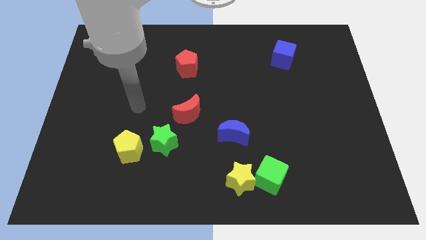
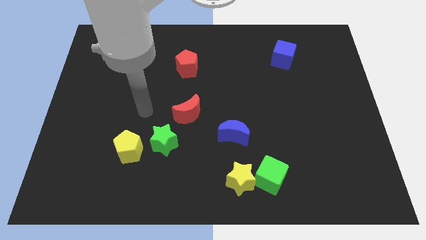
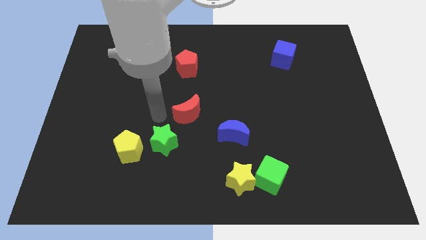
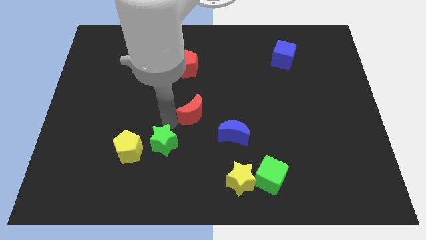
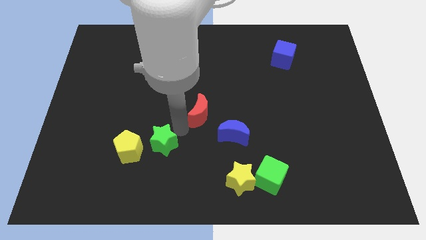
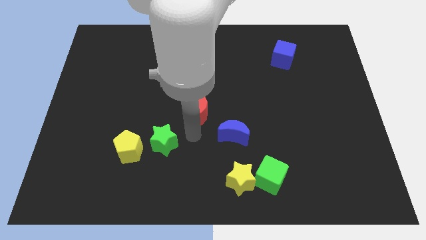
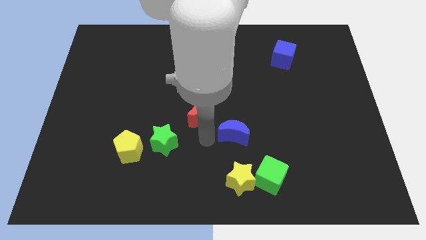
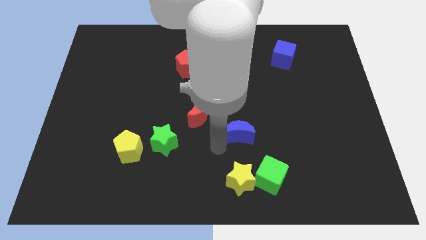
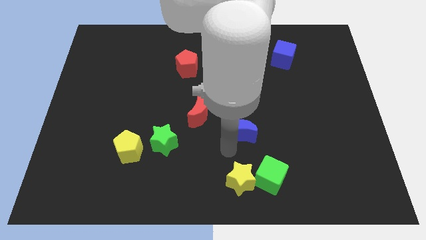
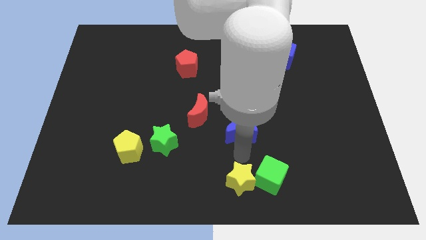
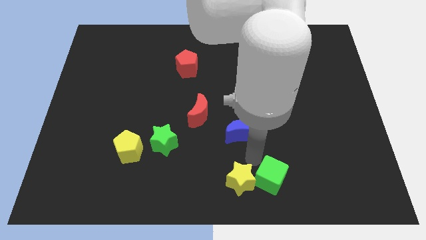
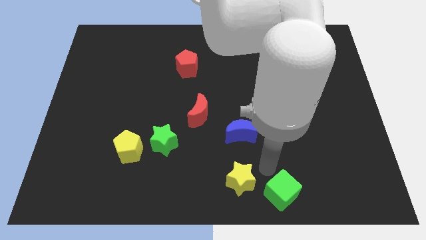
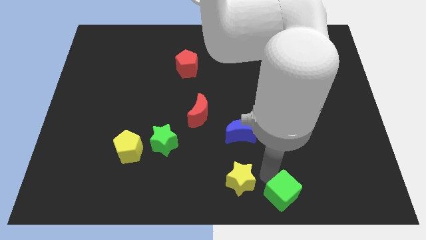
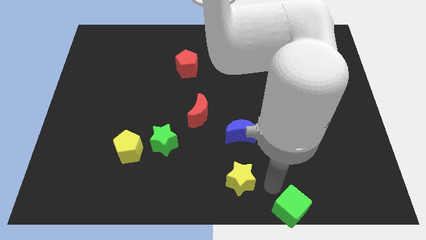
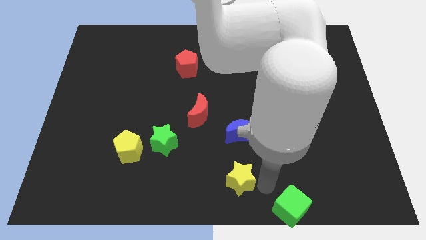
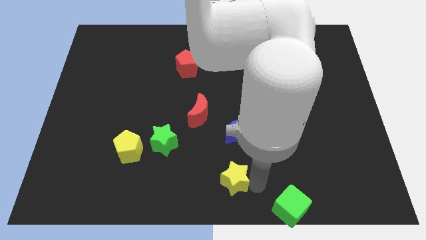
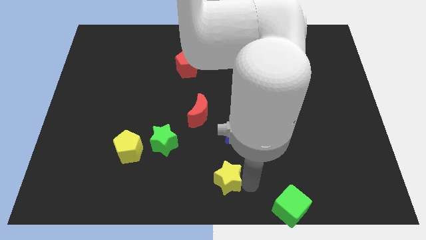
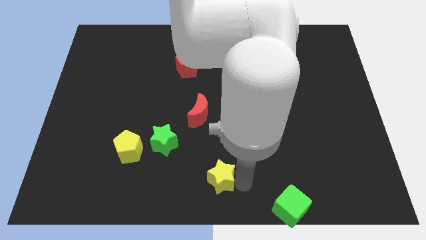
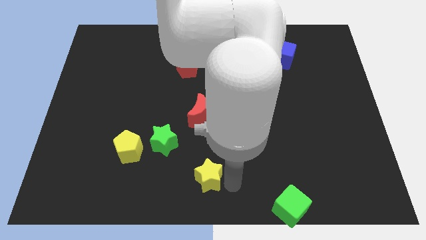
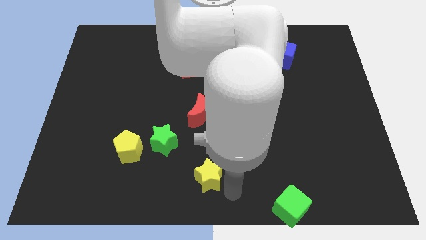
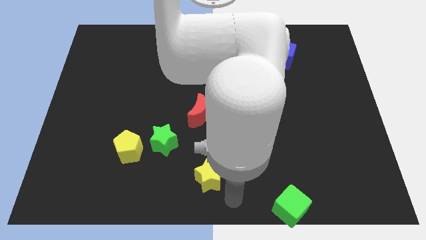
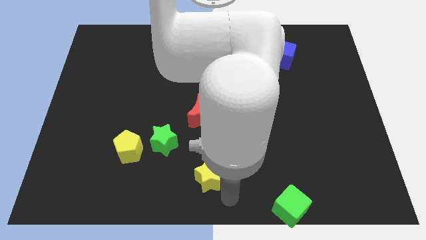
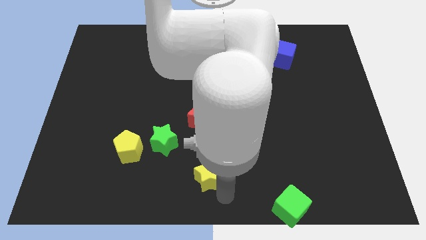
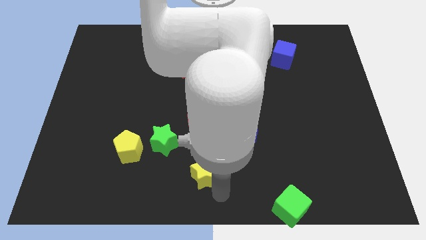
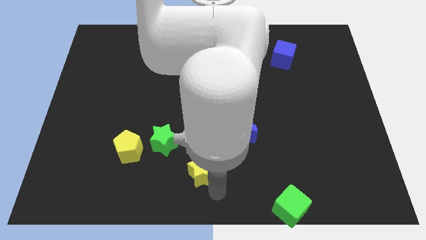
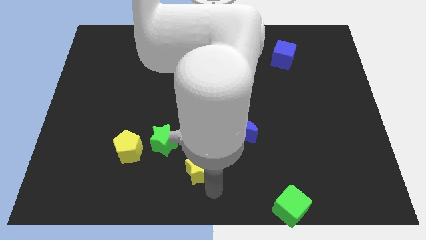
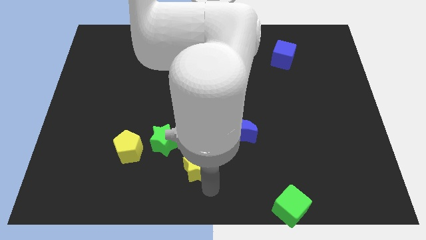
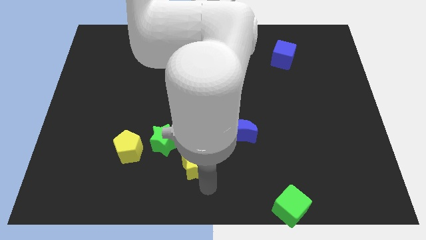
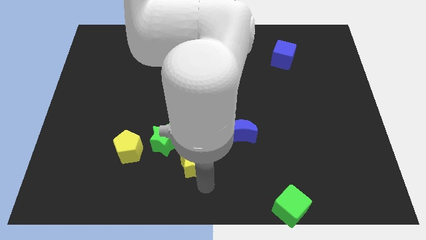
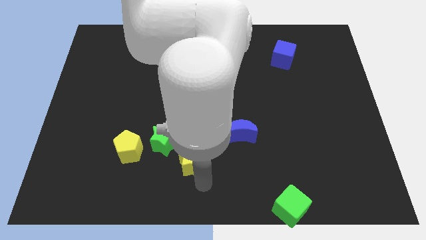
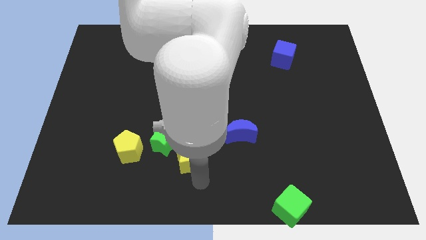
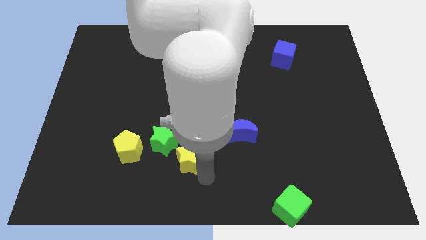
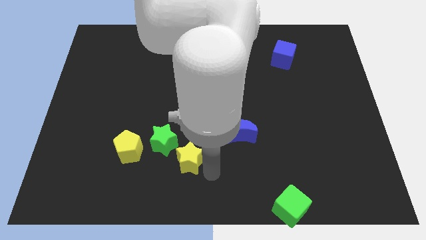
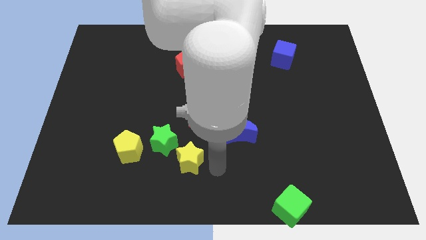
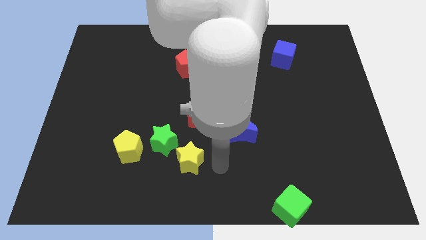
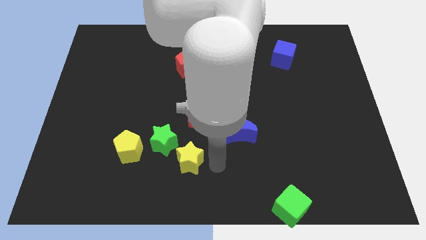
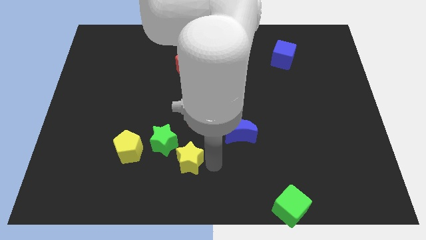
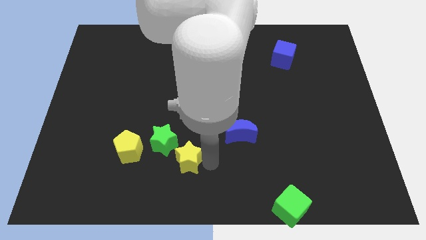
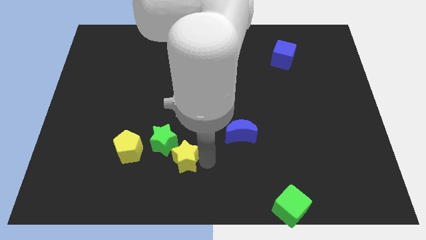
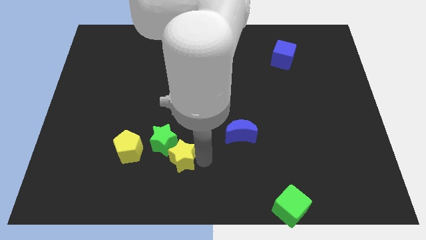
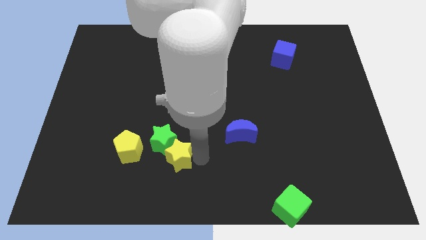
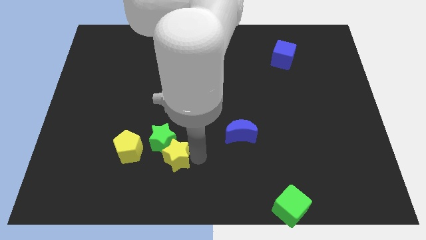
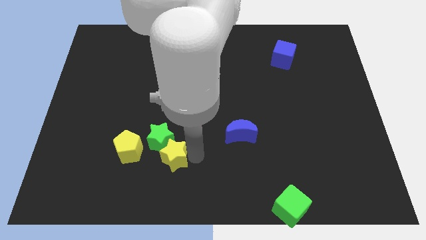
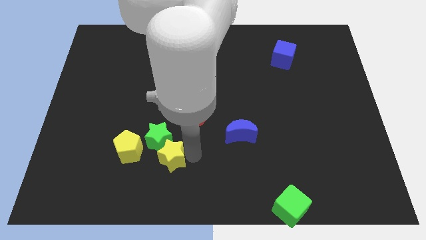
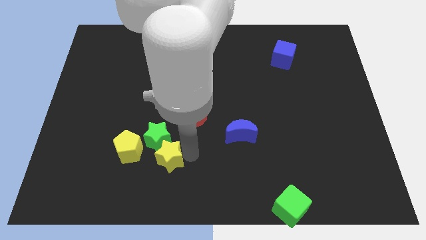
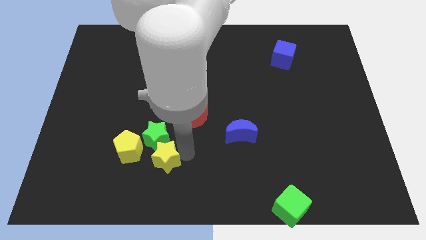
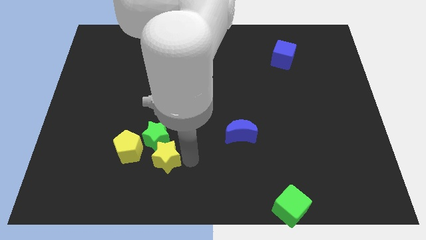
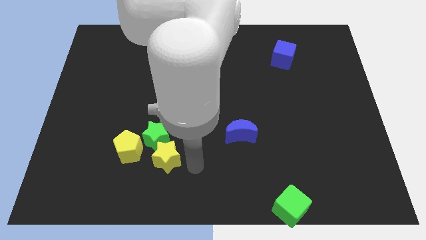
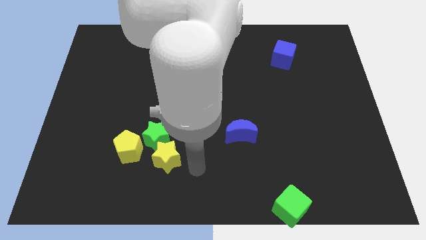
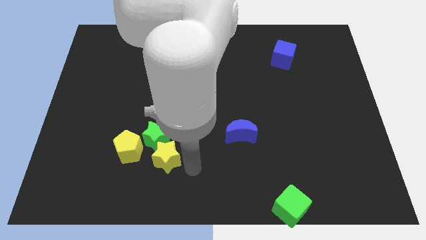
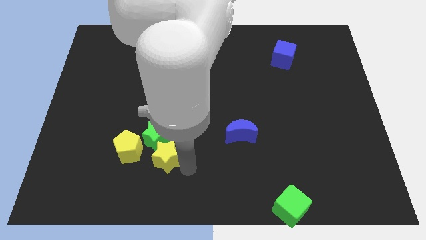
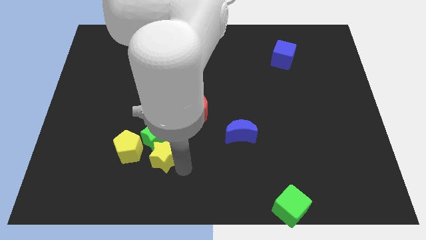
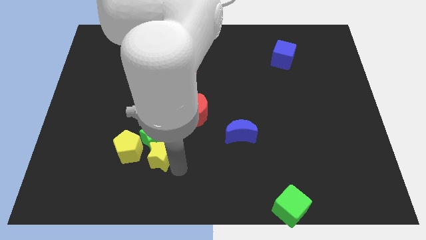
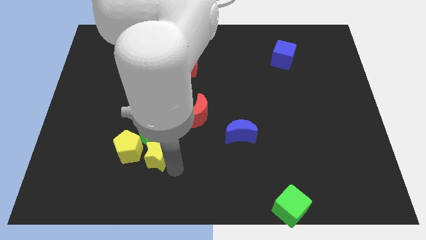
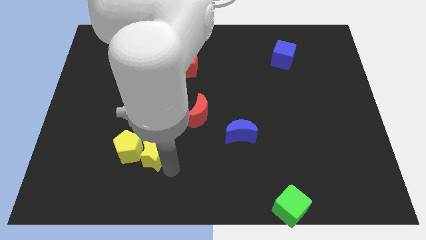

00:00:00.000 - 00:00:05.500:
slide the yellow star to the yellow pentagon

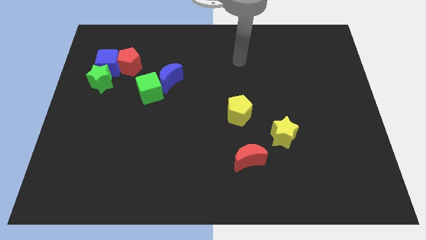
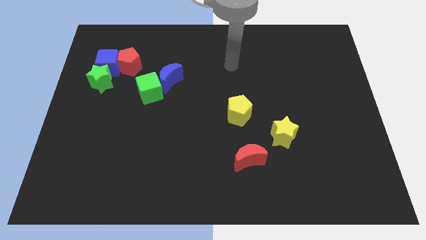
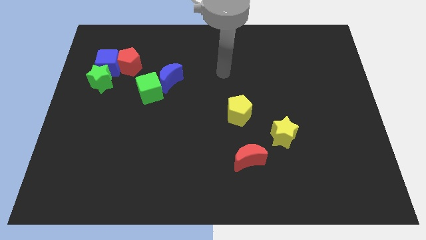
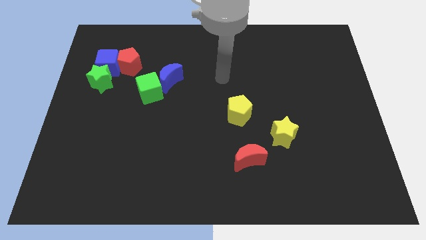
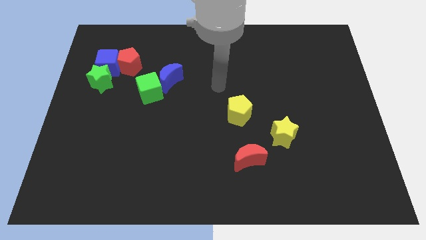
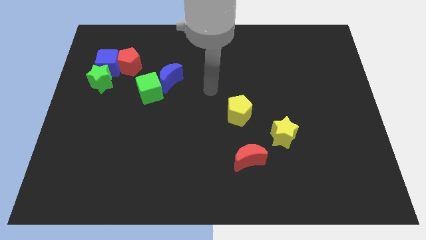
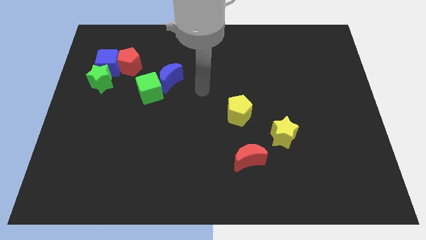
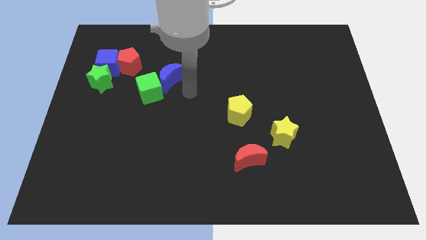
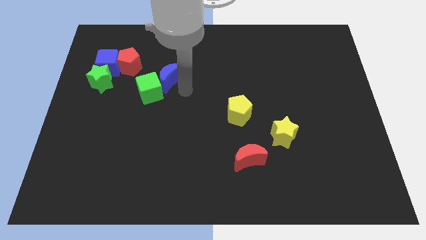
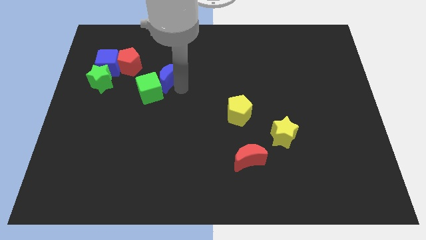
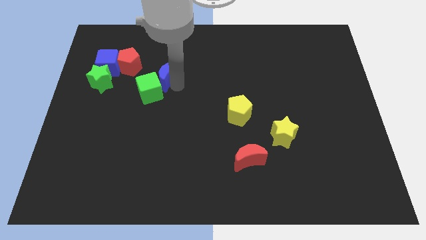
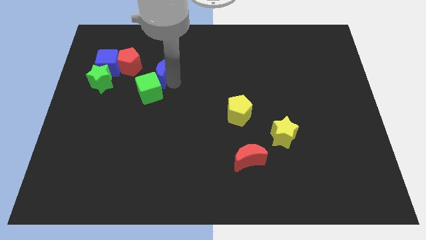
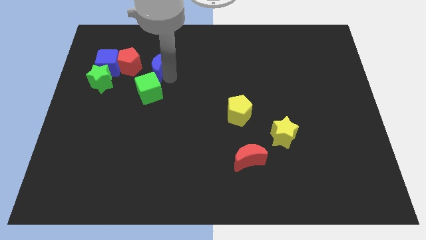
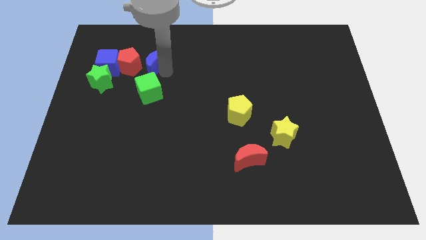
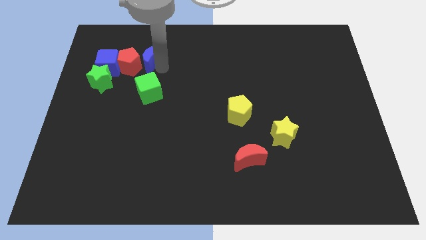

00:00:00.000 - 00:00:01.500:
put the blue moon towards the red pentagon
